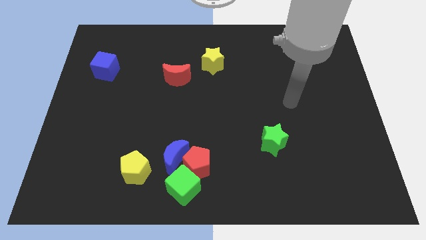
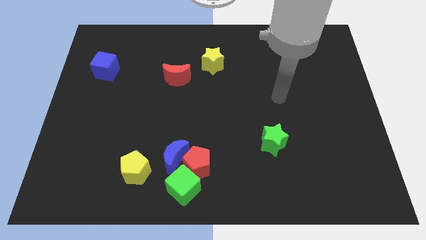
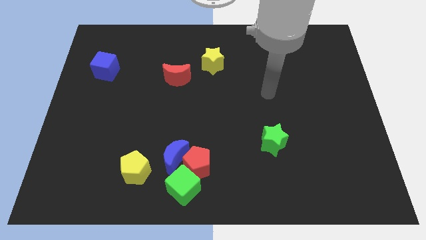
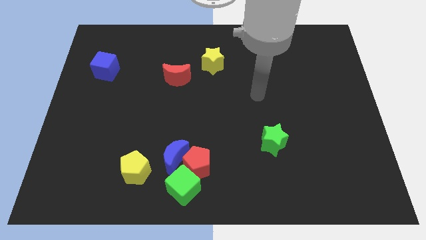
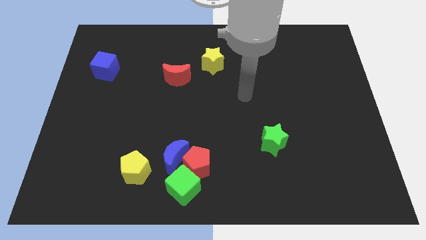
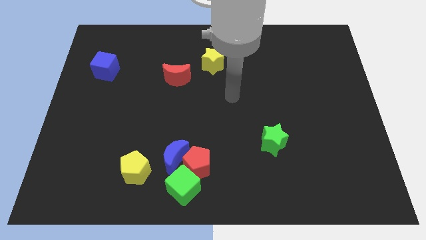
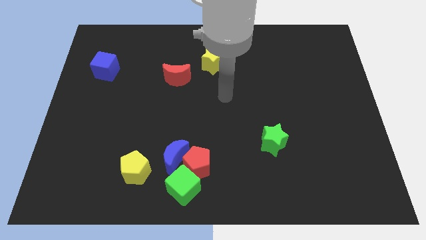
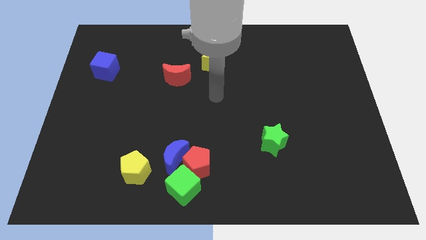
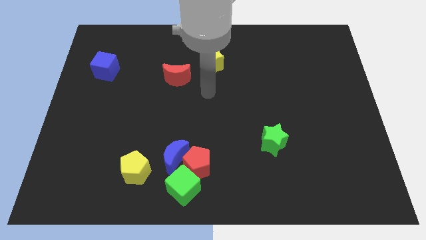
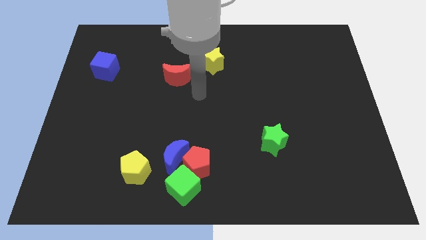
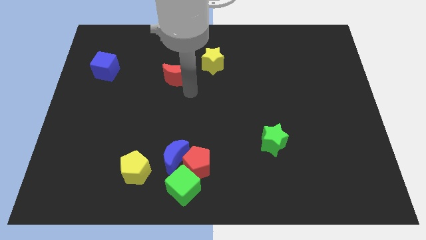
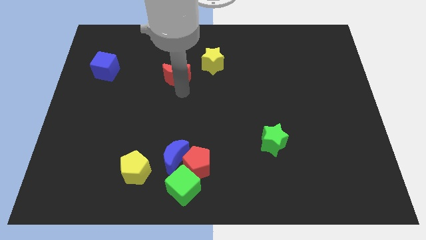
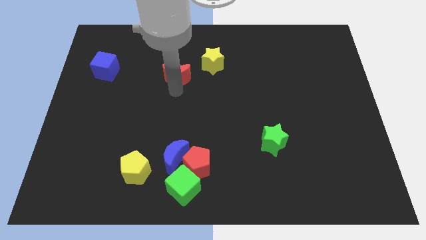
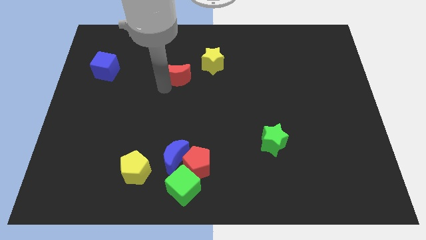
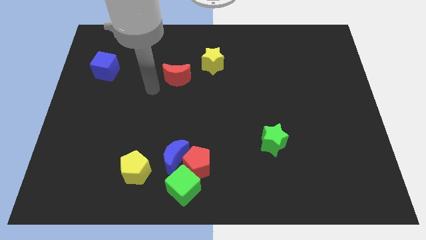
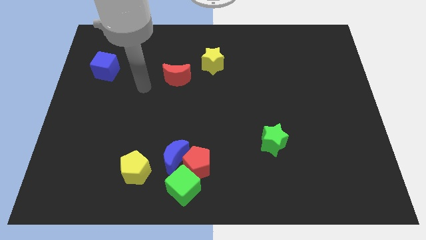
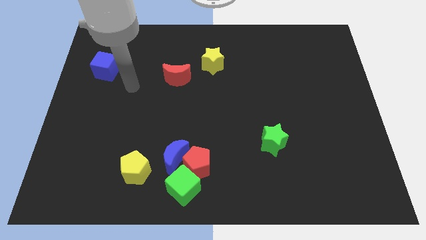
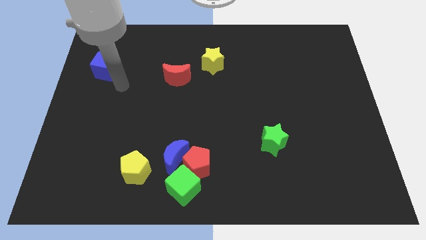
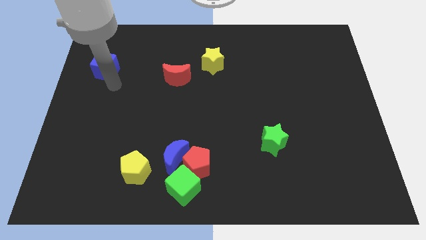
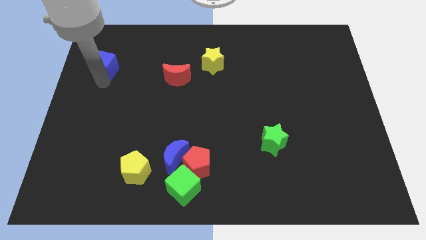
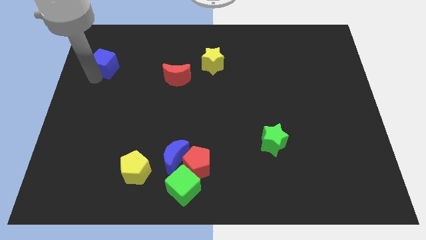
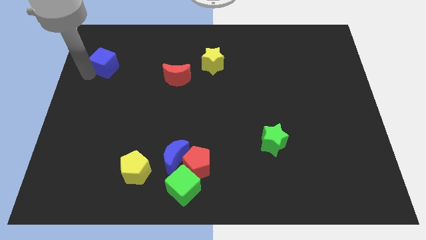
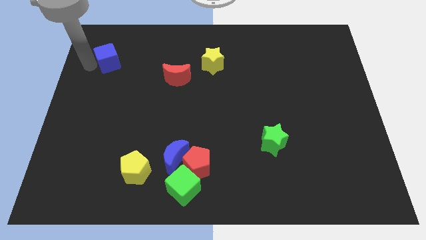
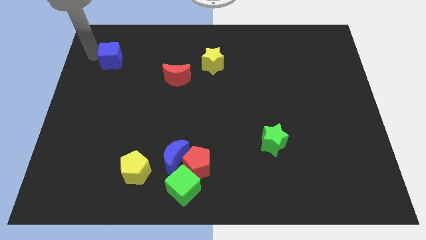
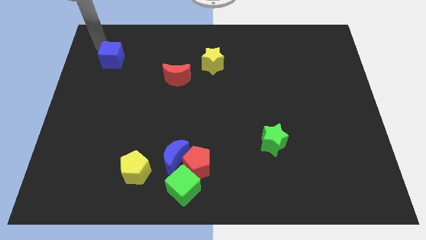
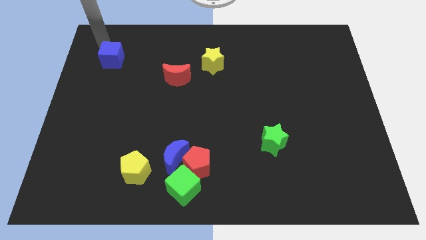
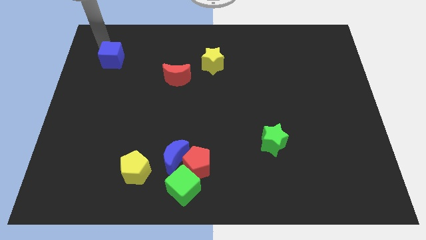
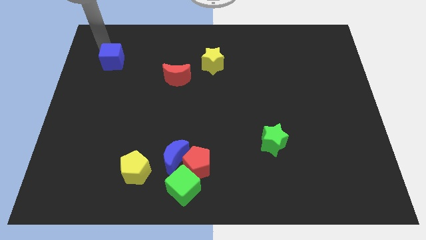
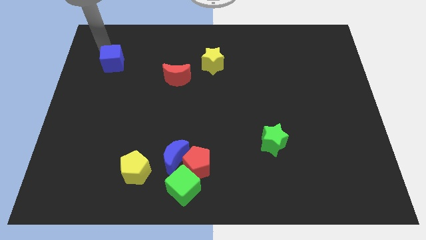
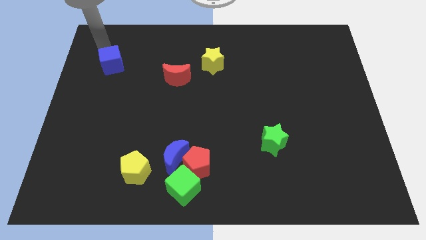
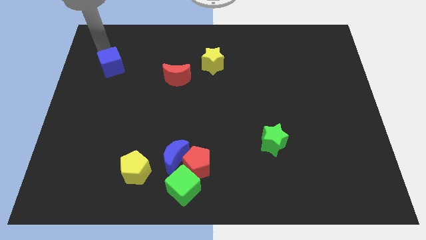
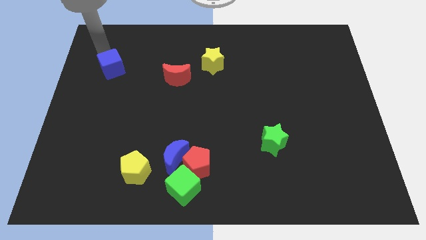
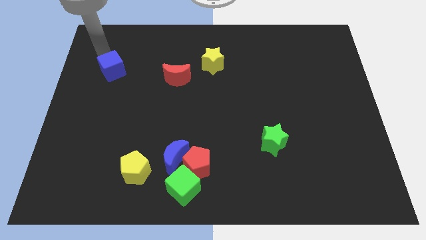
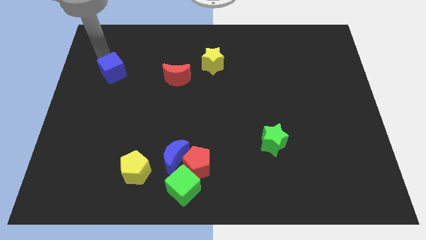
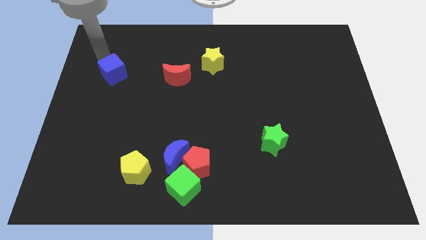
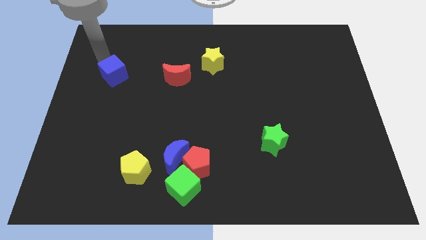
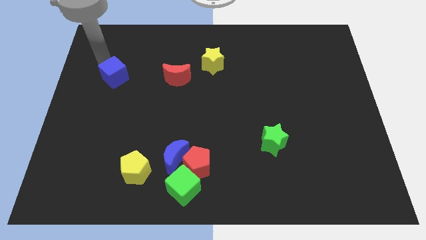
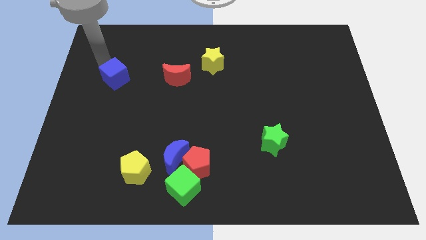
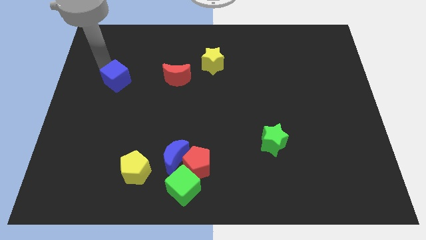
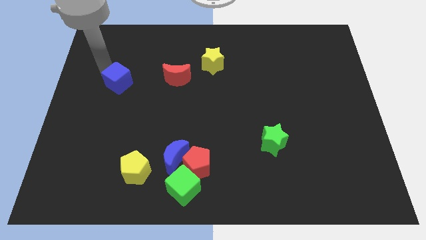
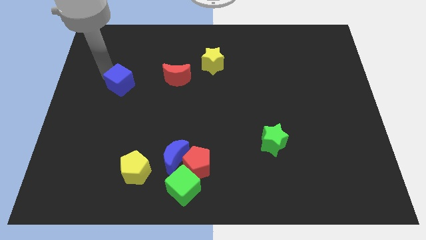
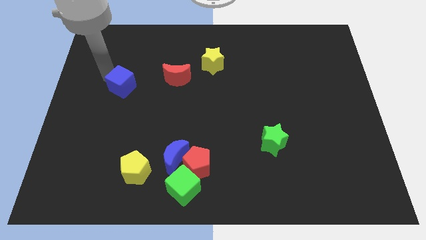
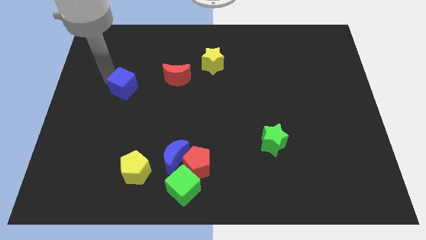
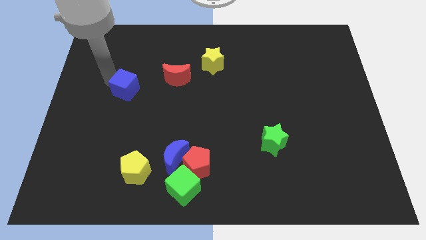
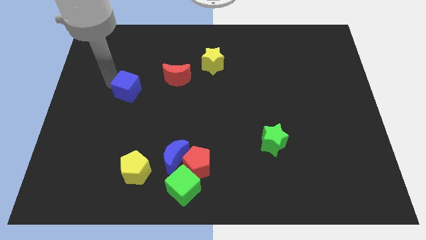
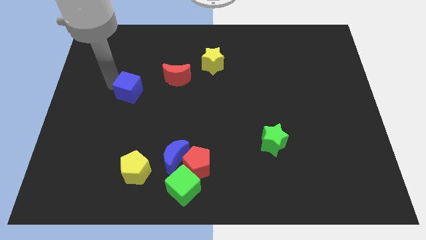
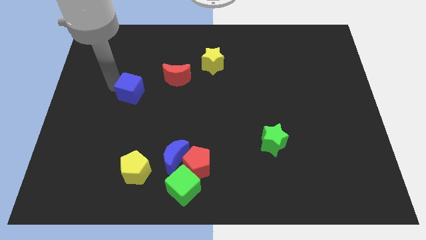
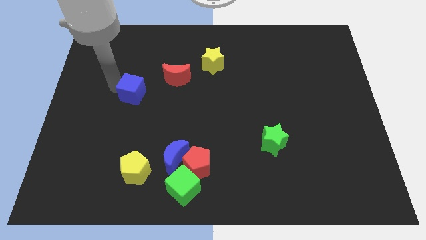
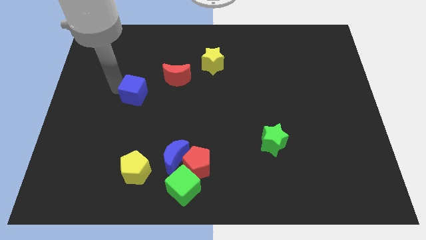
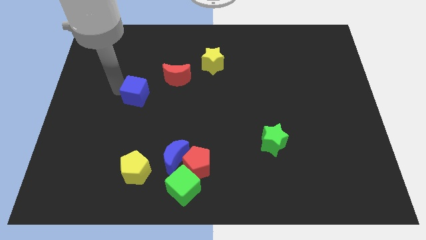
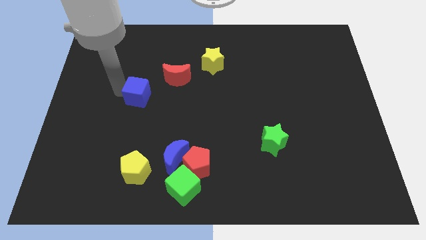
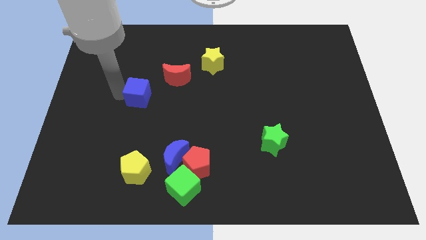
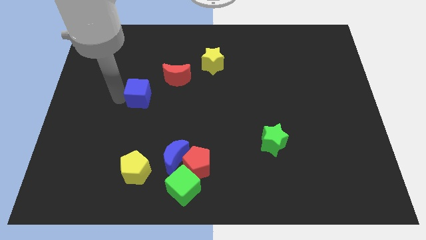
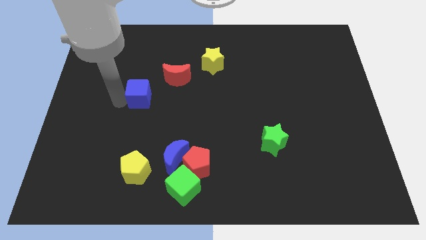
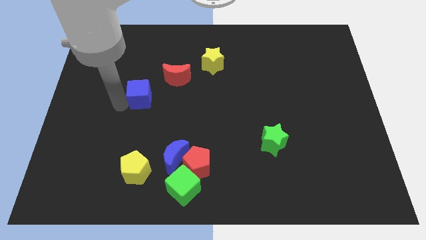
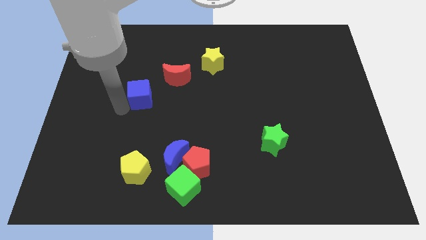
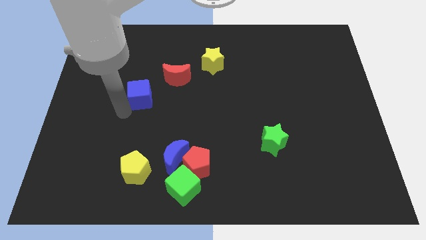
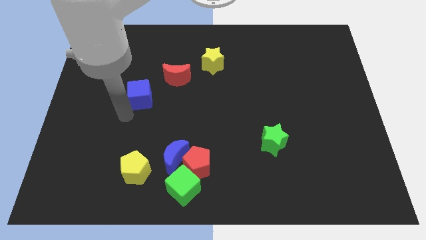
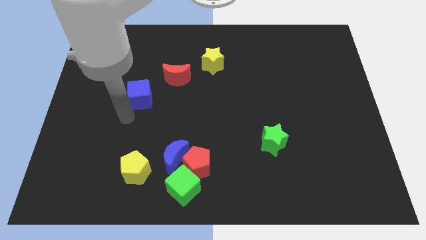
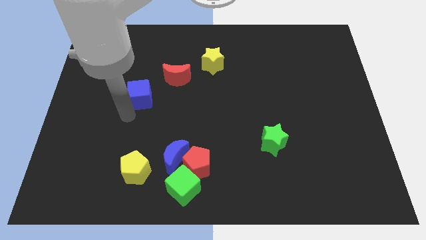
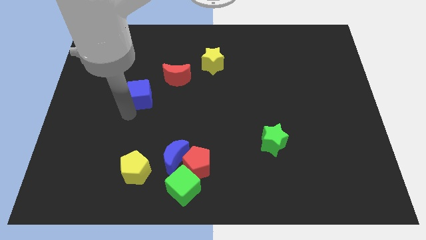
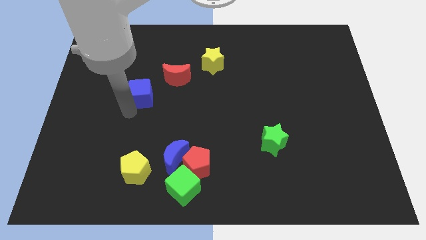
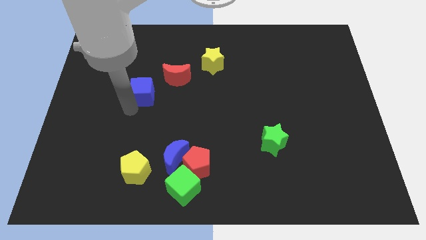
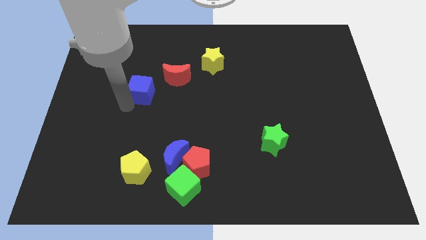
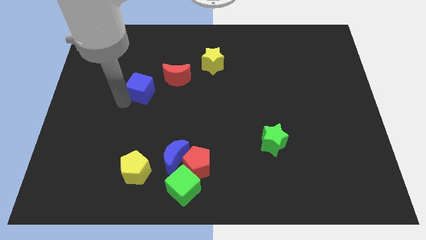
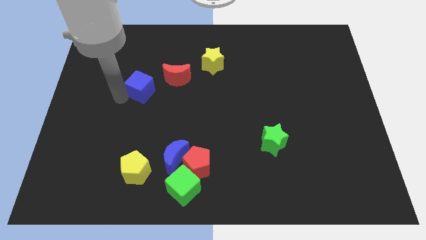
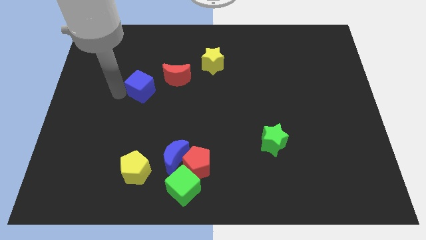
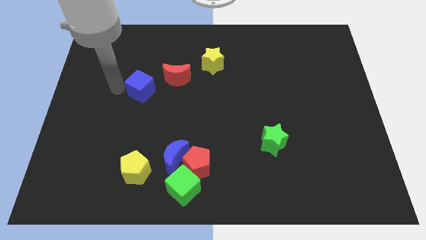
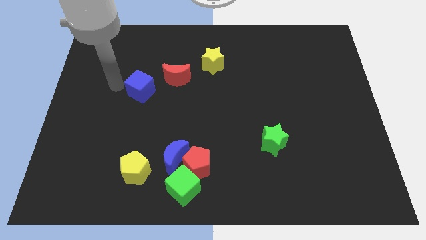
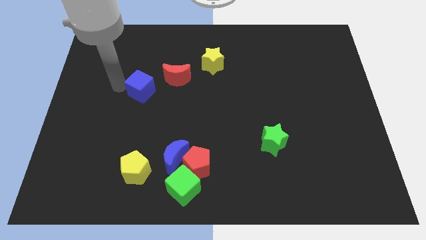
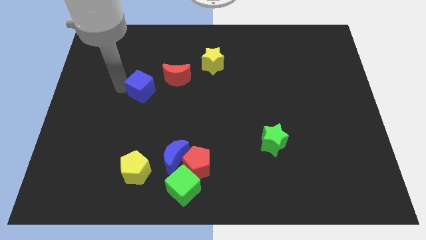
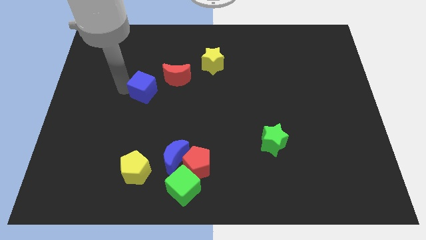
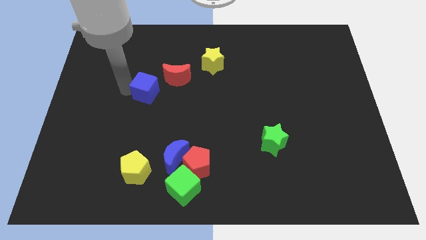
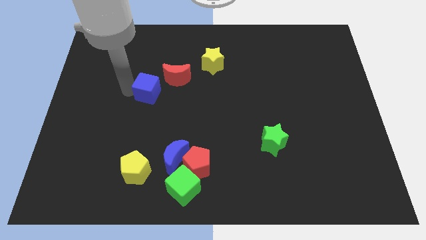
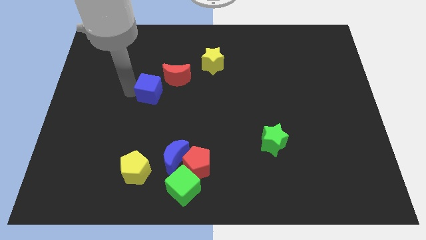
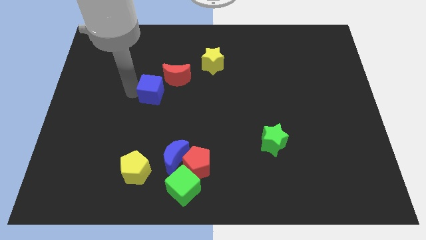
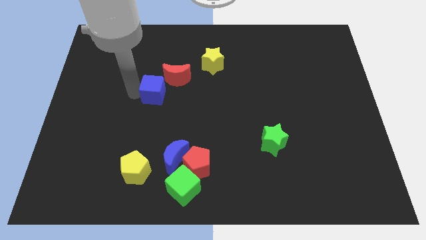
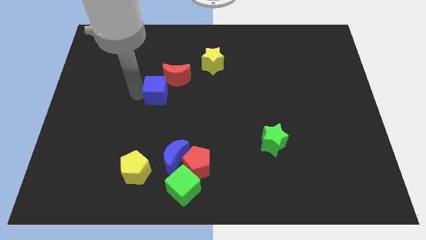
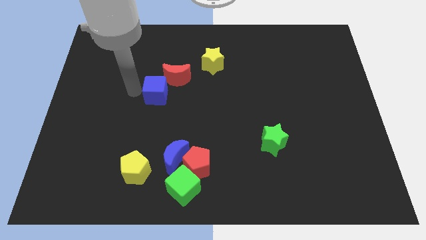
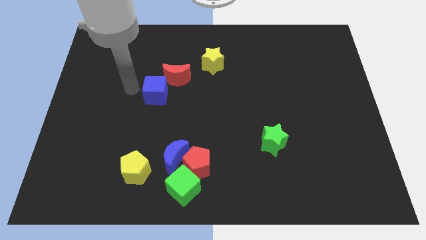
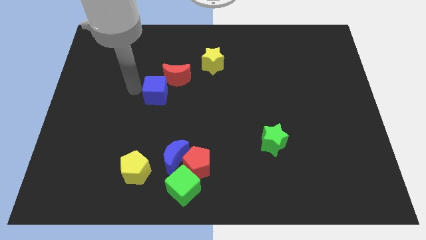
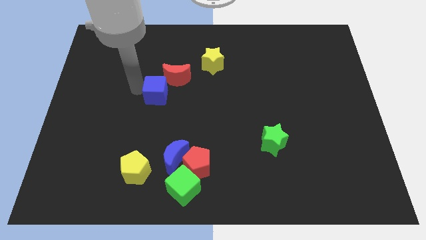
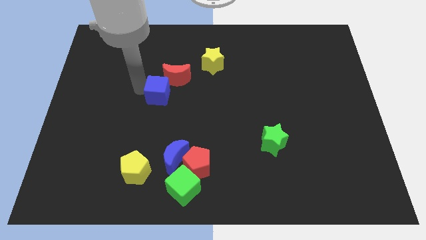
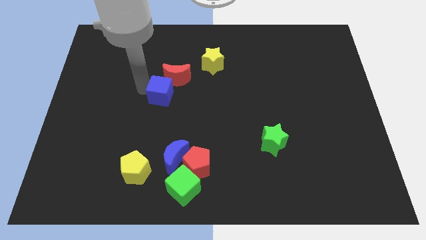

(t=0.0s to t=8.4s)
put the blue cube to the middle
